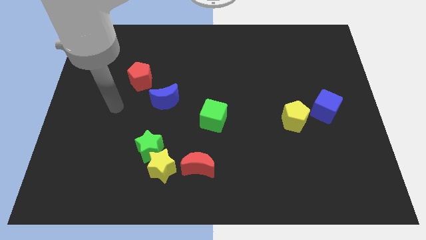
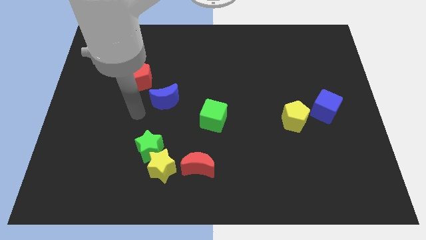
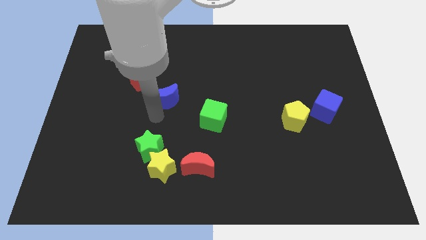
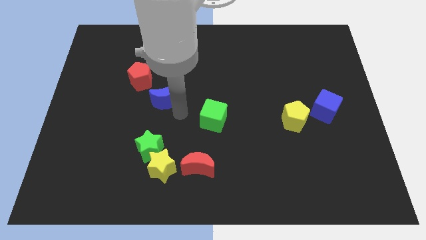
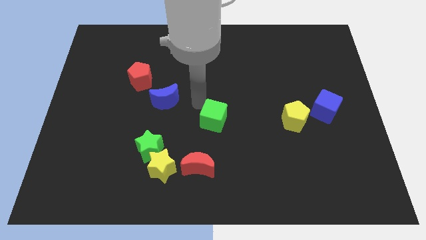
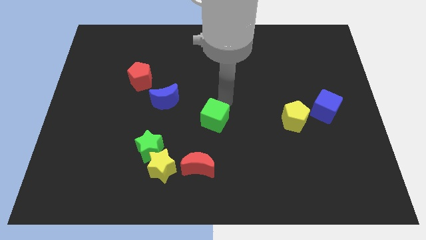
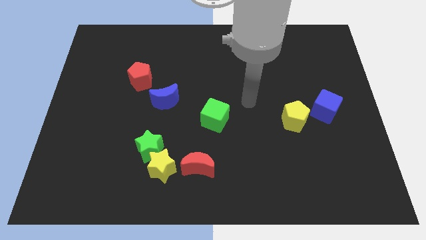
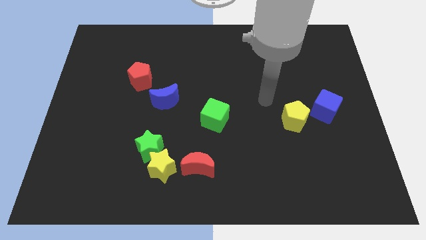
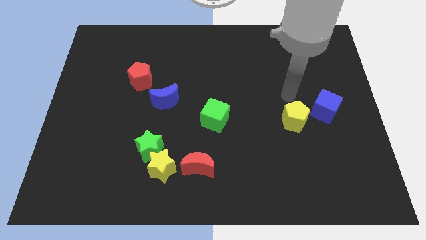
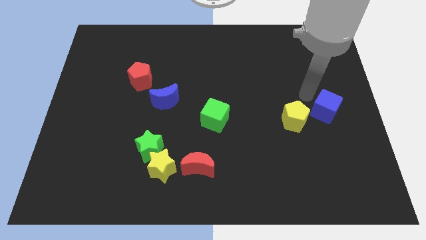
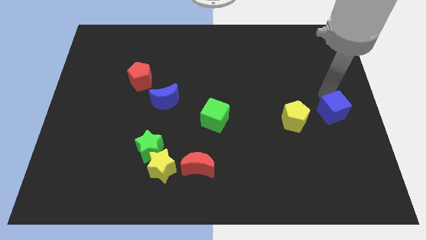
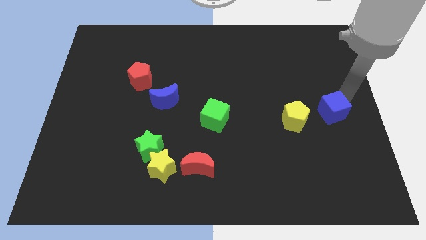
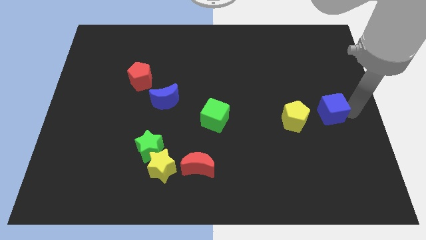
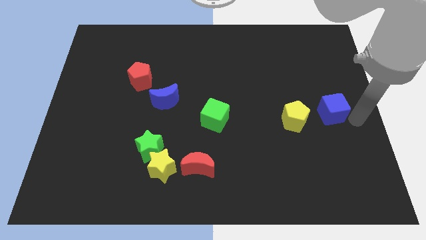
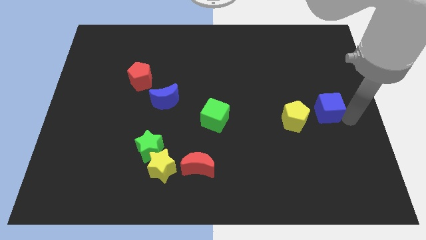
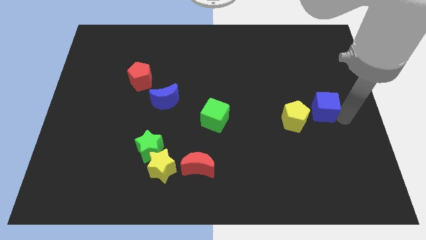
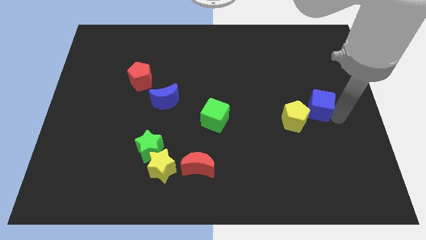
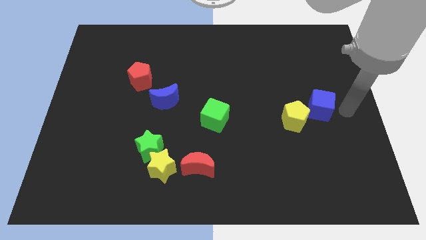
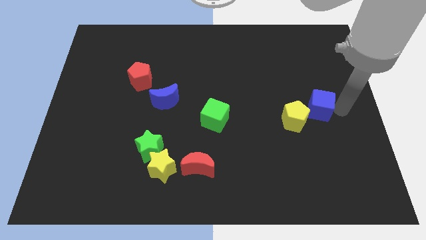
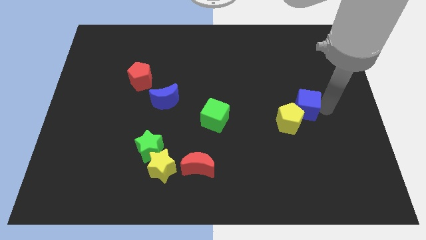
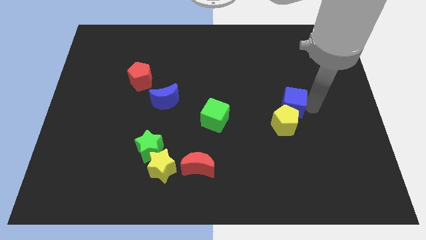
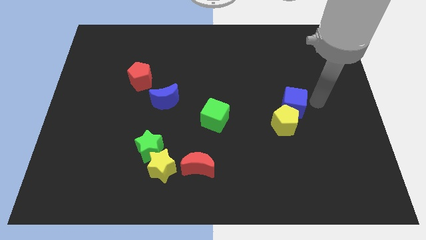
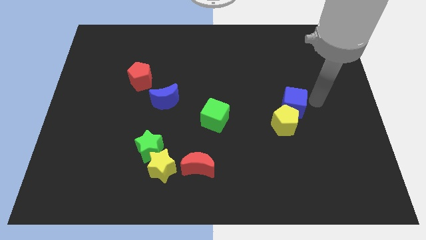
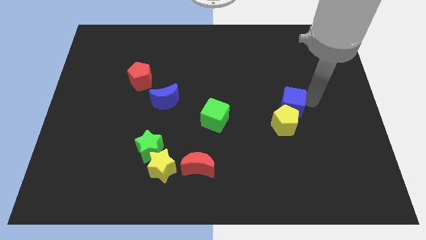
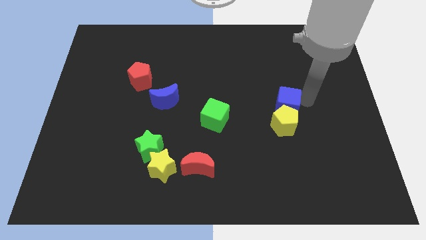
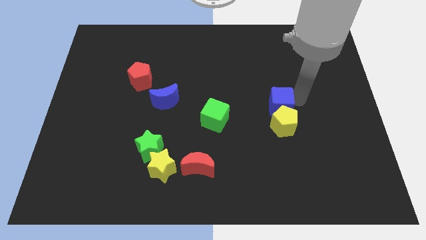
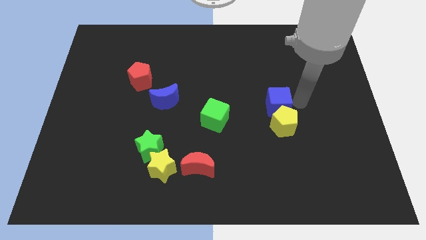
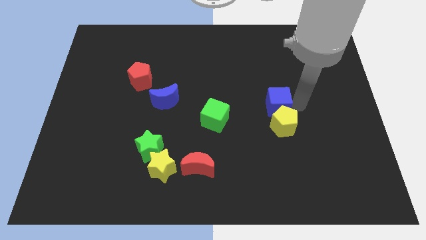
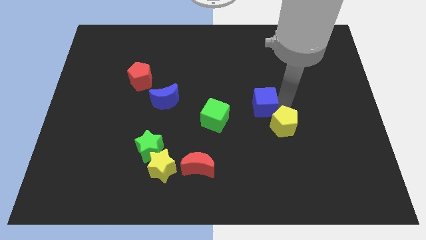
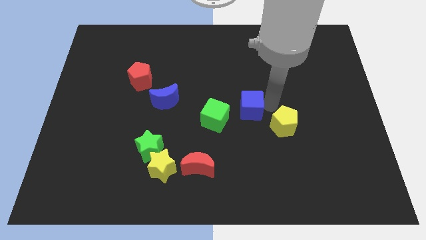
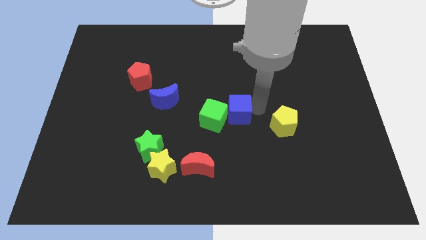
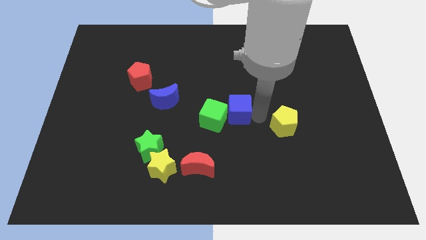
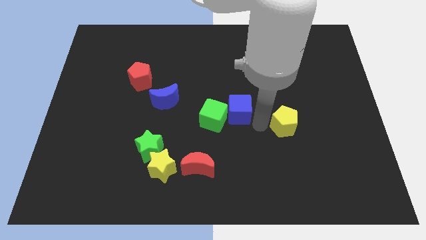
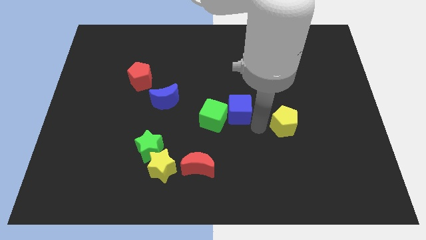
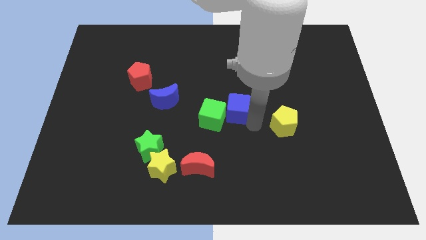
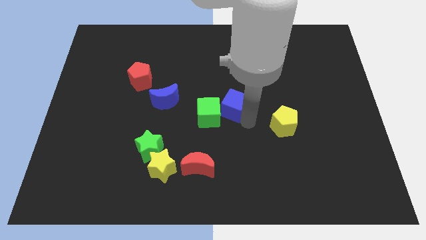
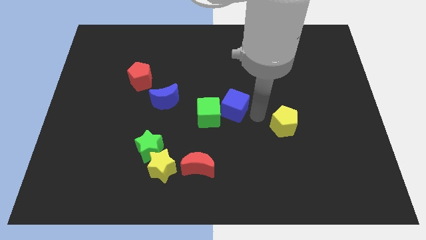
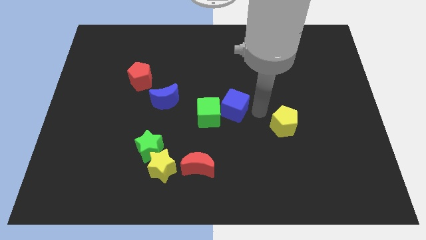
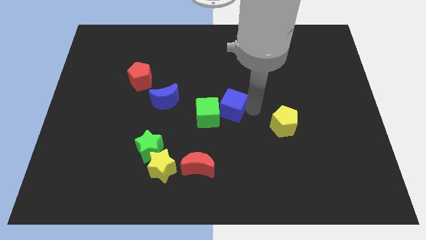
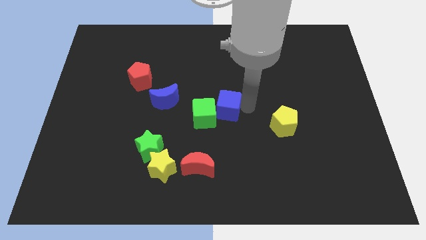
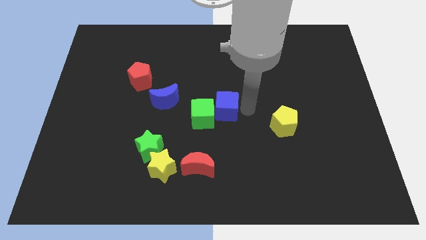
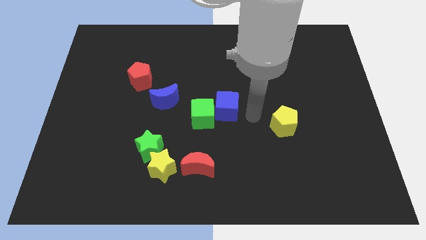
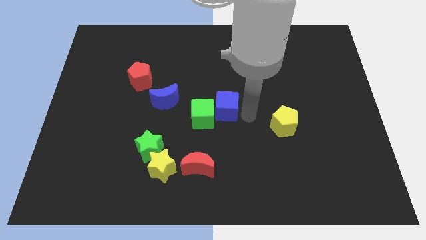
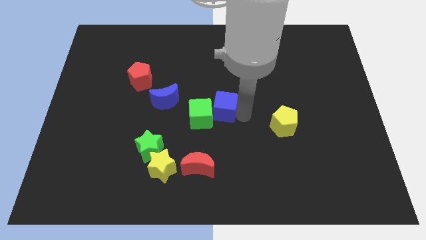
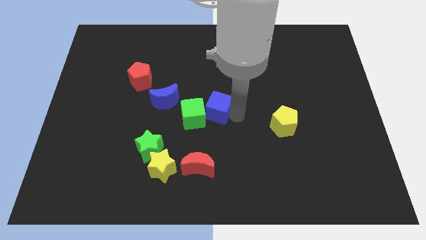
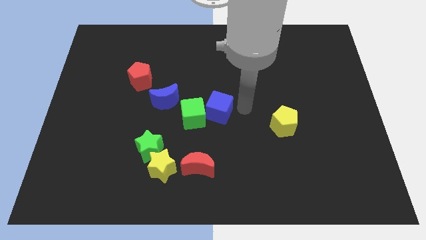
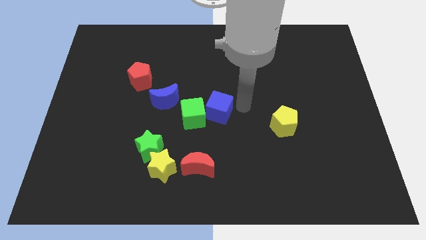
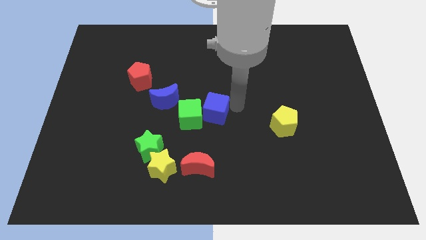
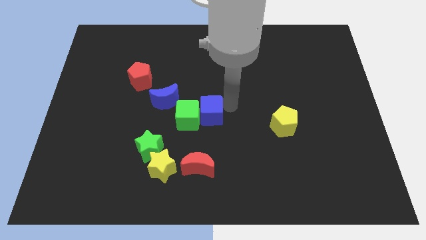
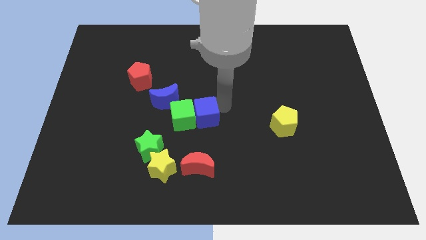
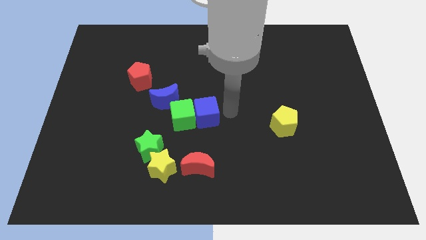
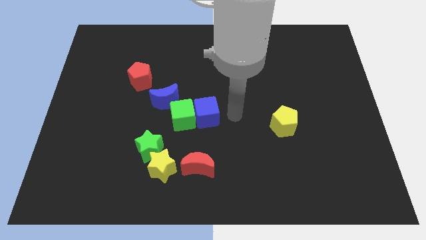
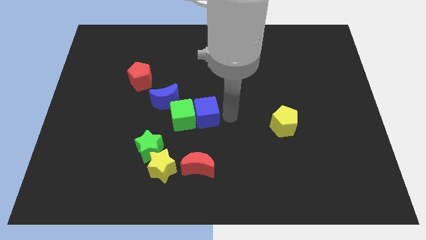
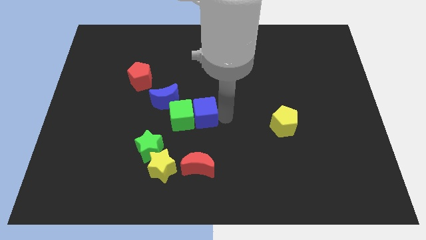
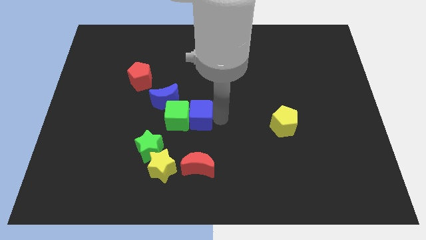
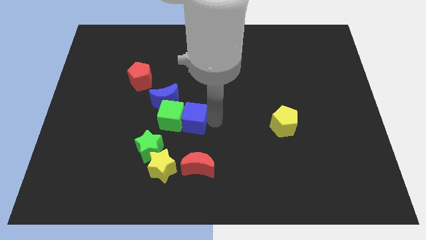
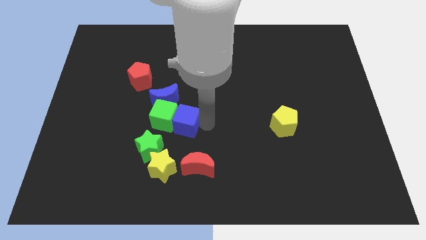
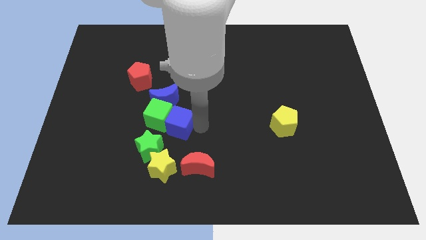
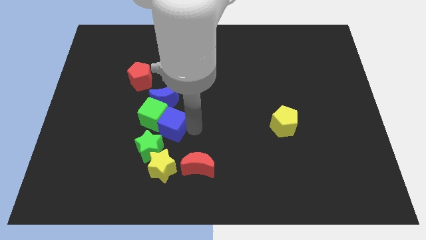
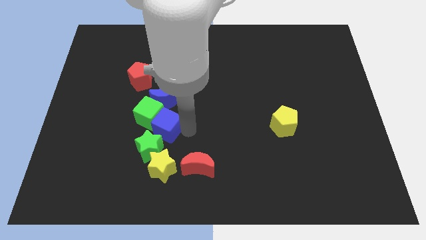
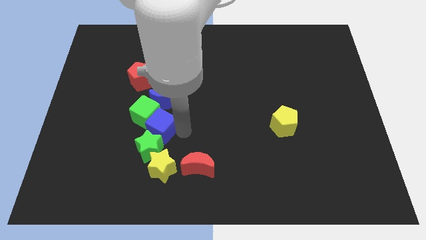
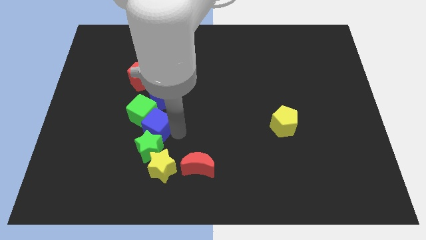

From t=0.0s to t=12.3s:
push the blue cube diagonally down and to the left of the blue moon

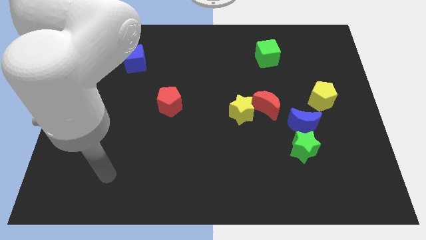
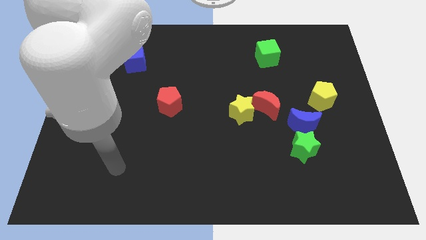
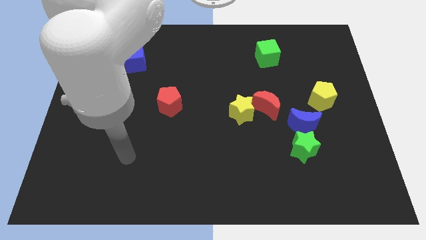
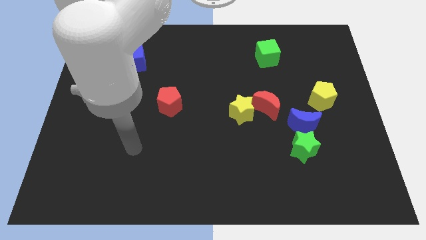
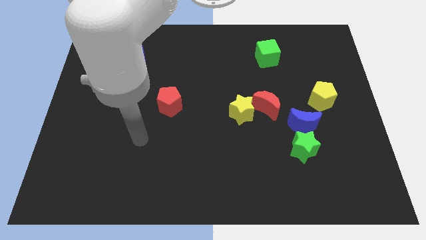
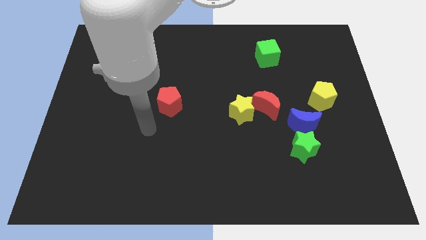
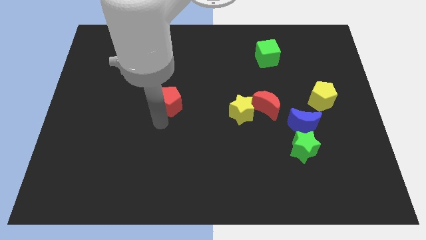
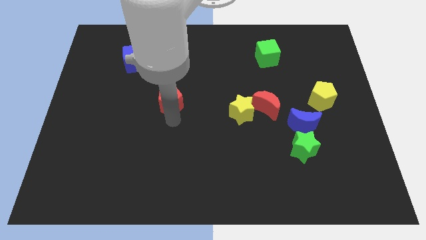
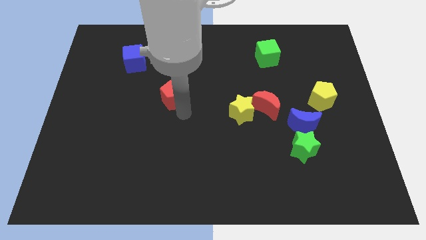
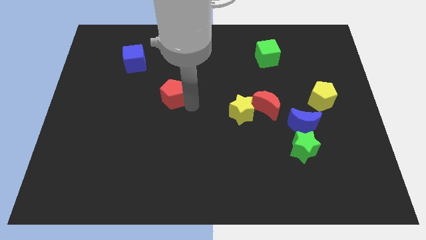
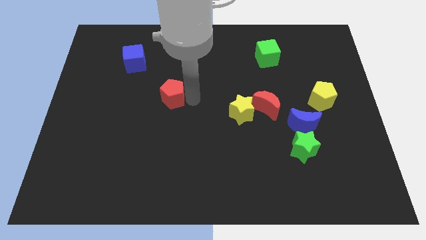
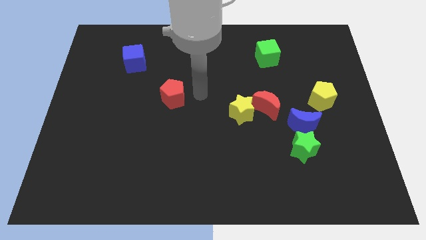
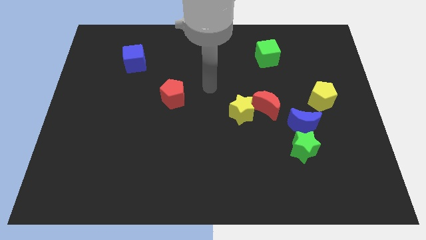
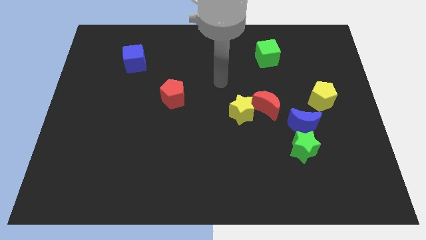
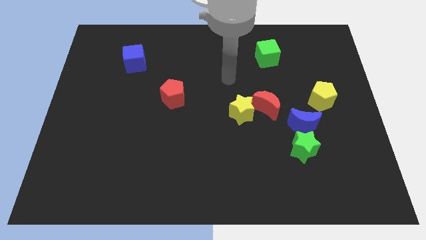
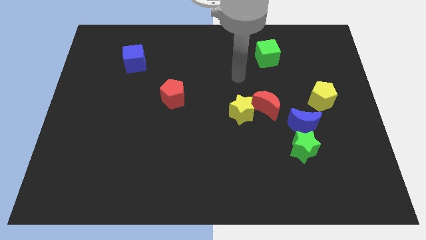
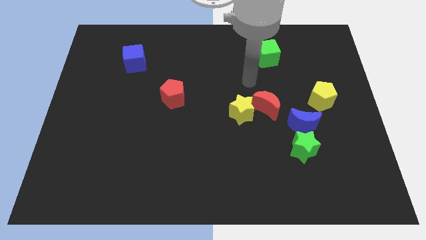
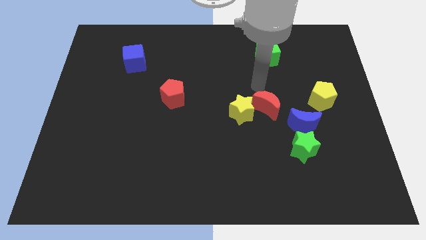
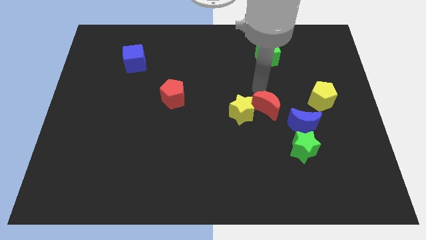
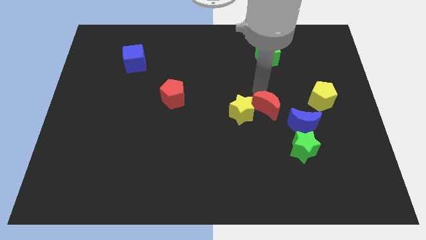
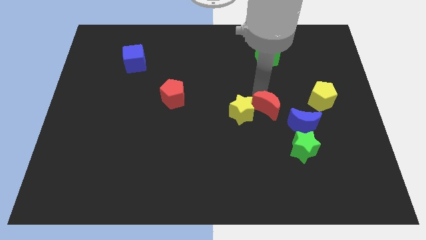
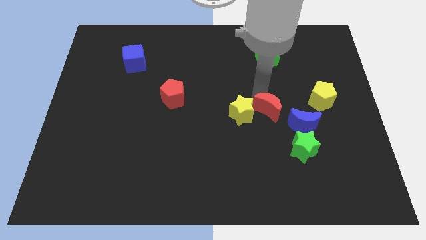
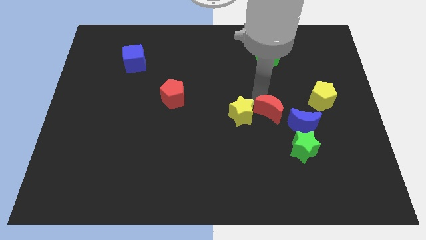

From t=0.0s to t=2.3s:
move the red moon to the top left side of the green star
